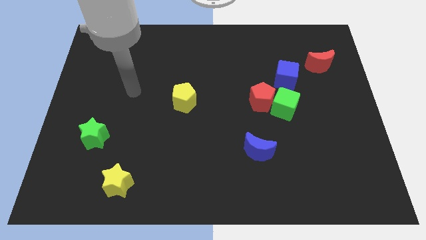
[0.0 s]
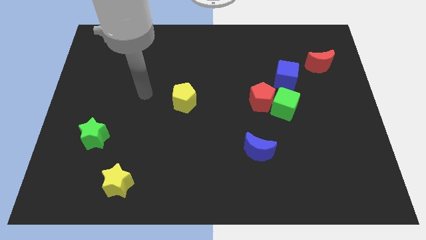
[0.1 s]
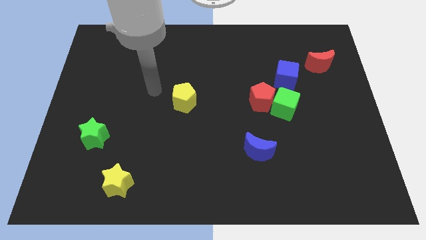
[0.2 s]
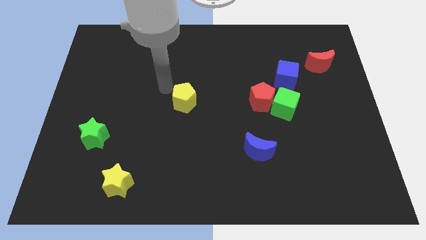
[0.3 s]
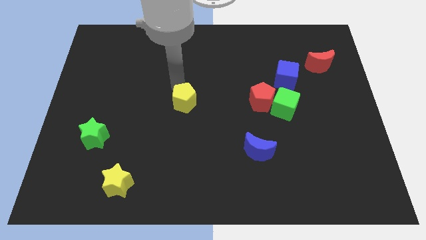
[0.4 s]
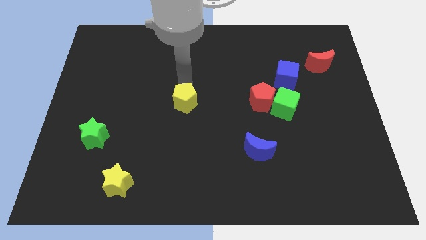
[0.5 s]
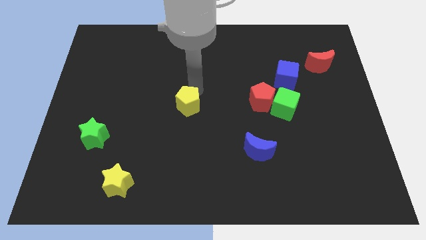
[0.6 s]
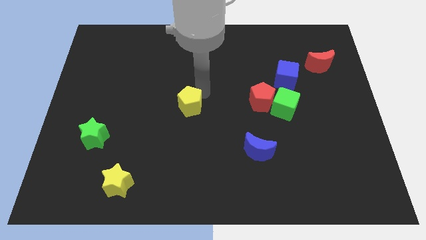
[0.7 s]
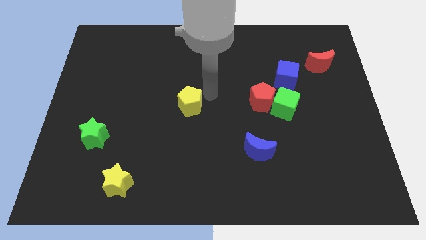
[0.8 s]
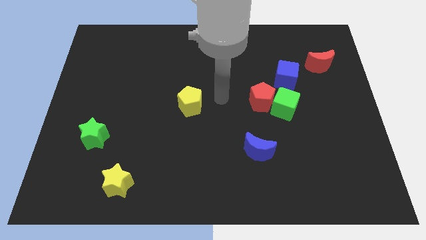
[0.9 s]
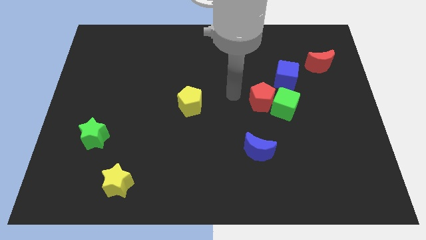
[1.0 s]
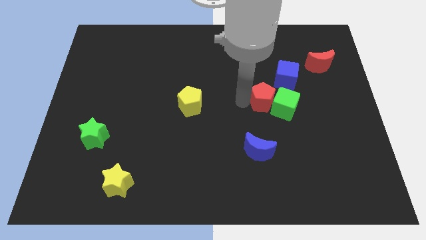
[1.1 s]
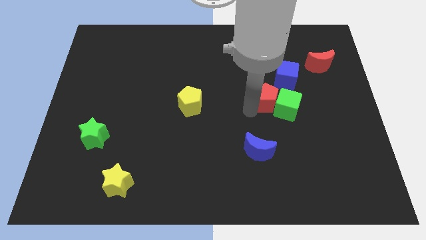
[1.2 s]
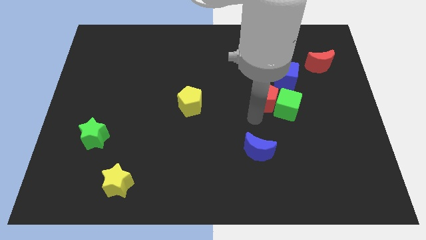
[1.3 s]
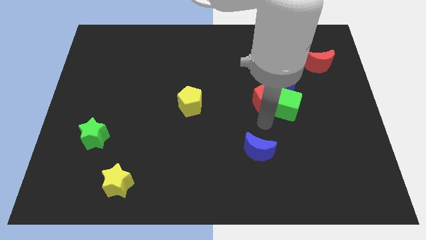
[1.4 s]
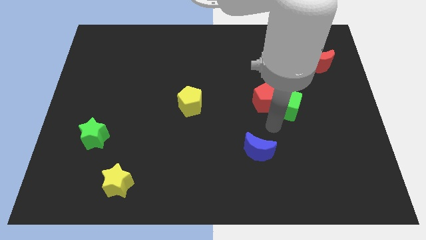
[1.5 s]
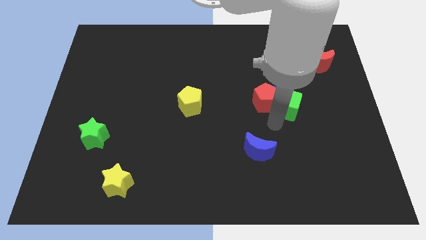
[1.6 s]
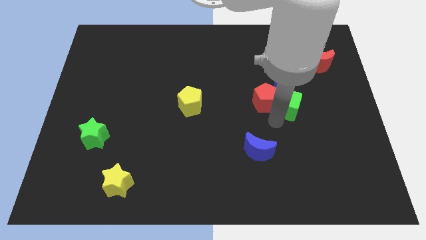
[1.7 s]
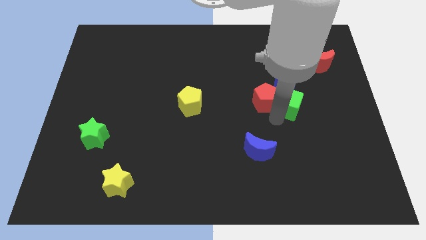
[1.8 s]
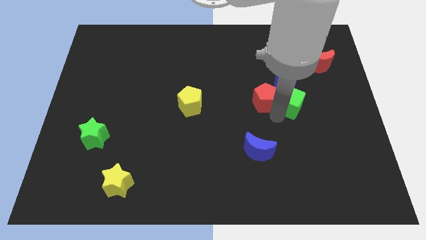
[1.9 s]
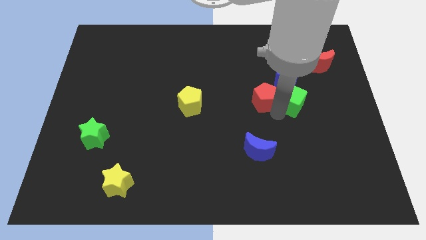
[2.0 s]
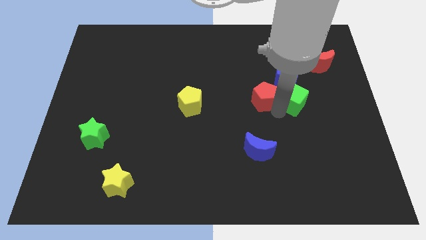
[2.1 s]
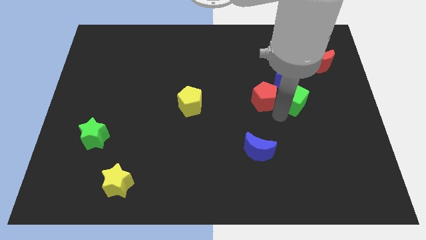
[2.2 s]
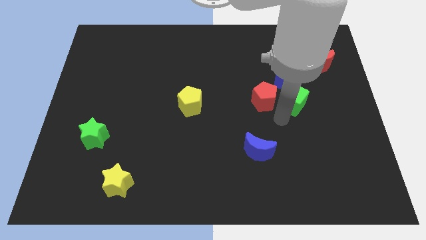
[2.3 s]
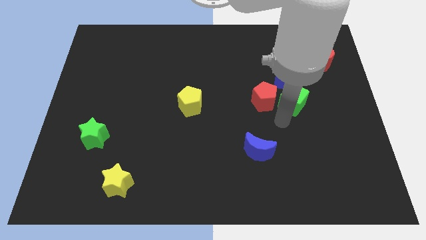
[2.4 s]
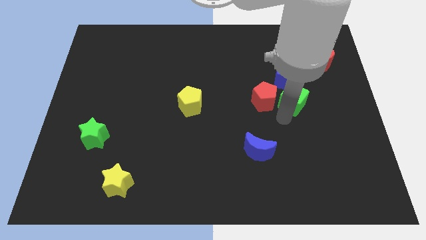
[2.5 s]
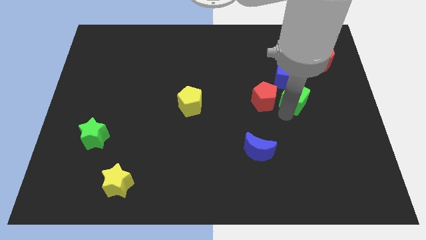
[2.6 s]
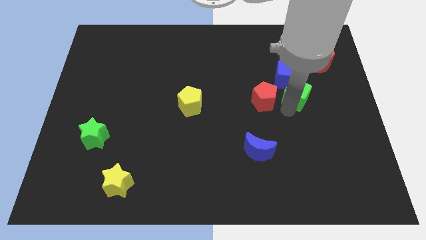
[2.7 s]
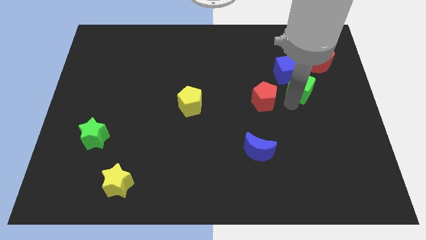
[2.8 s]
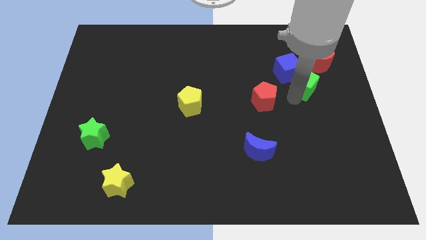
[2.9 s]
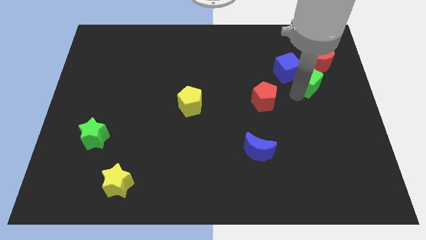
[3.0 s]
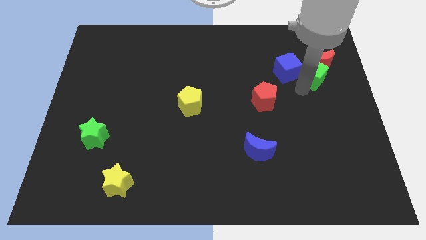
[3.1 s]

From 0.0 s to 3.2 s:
put the green cube towards the red moon

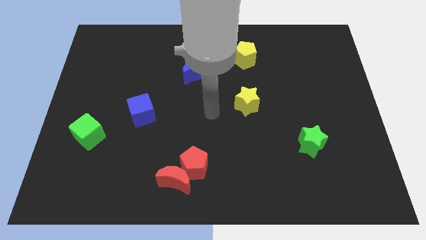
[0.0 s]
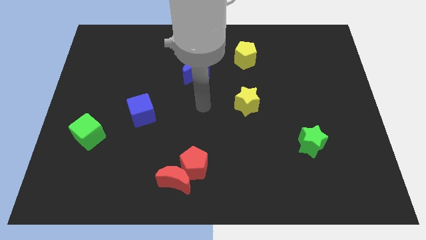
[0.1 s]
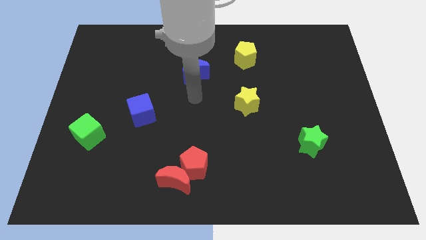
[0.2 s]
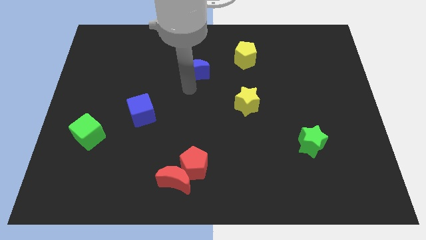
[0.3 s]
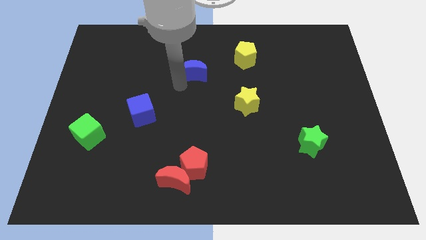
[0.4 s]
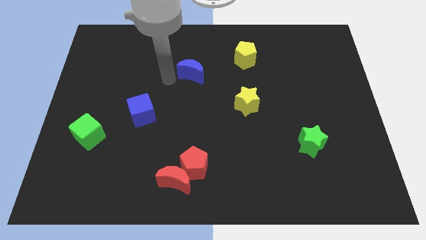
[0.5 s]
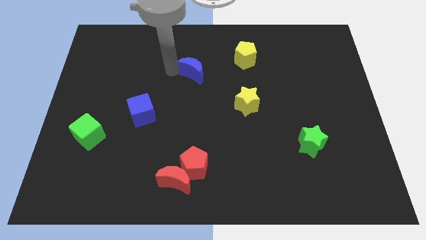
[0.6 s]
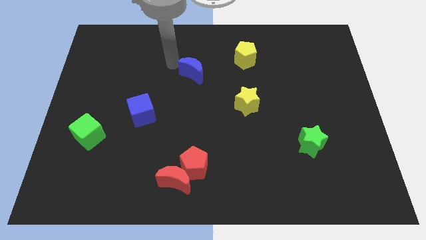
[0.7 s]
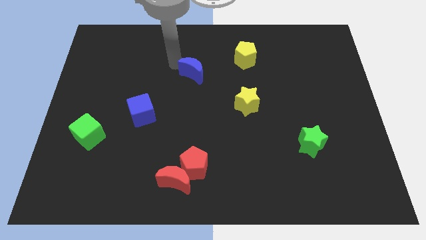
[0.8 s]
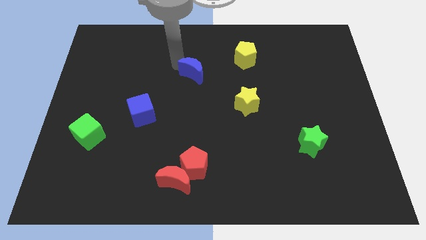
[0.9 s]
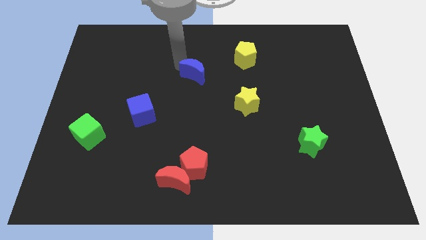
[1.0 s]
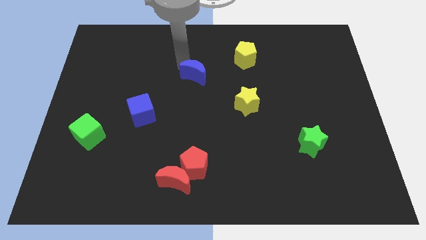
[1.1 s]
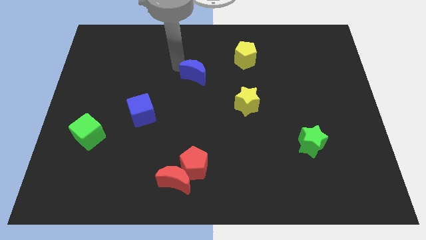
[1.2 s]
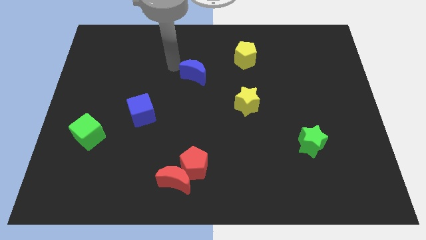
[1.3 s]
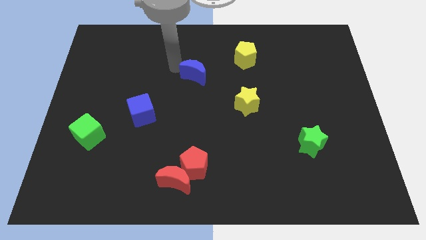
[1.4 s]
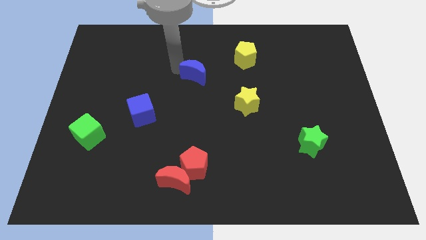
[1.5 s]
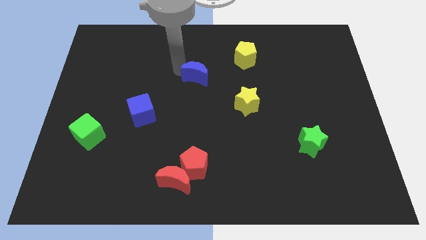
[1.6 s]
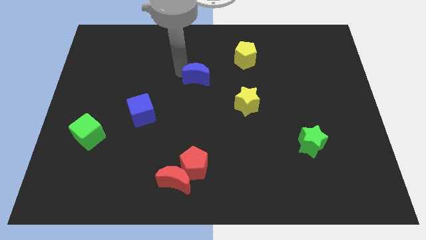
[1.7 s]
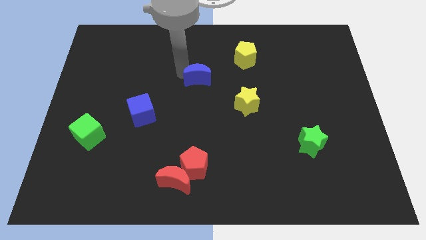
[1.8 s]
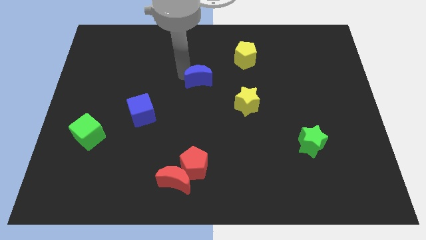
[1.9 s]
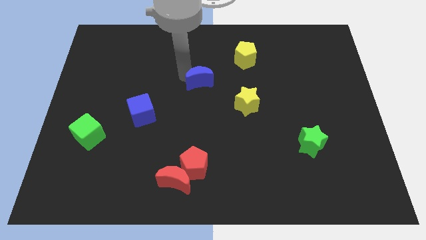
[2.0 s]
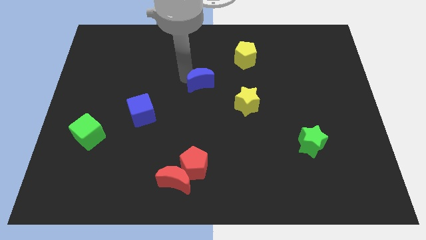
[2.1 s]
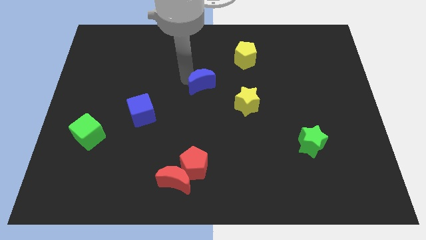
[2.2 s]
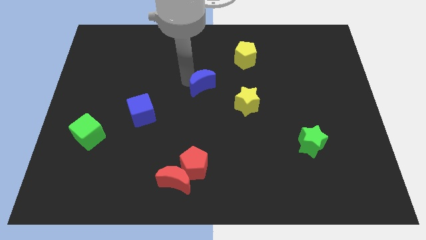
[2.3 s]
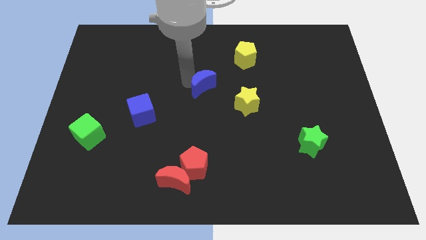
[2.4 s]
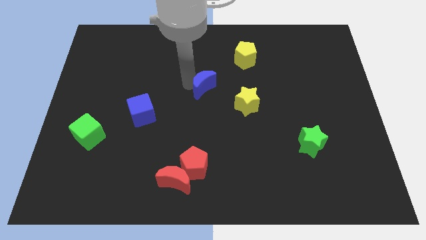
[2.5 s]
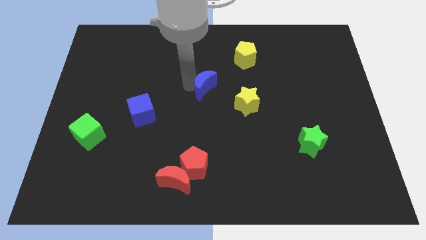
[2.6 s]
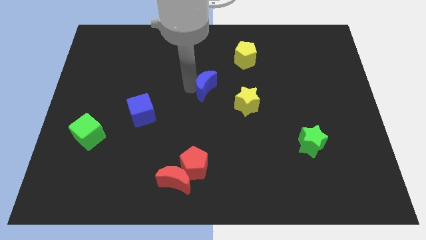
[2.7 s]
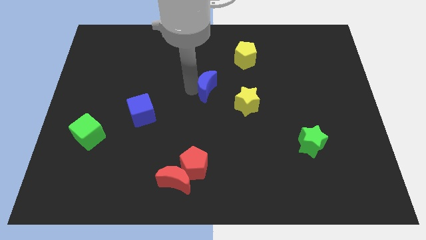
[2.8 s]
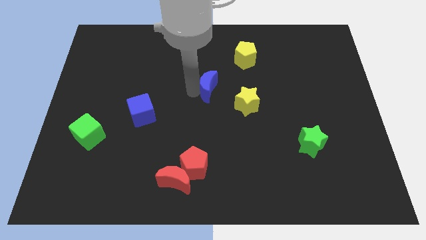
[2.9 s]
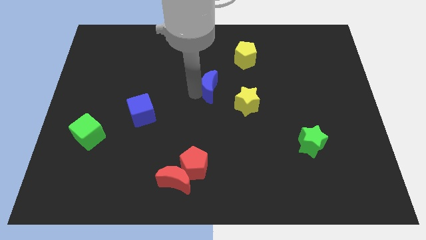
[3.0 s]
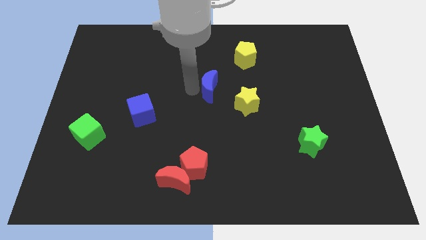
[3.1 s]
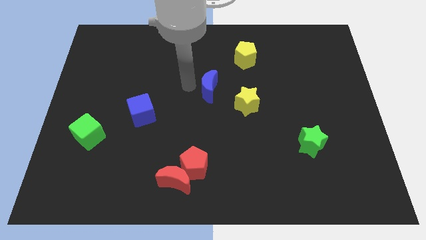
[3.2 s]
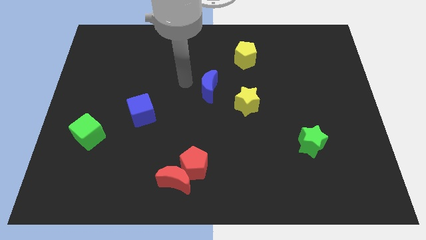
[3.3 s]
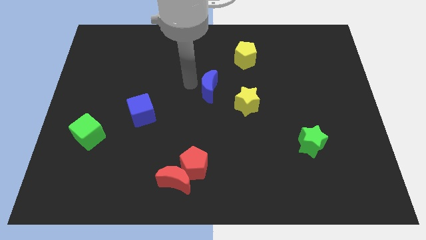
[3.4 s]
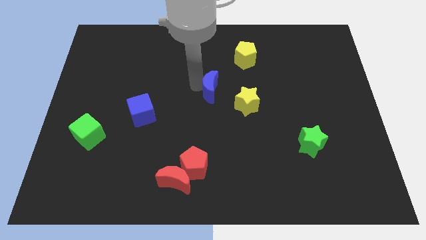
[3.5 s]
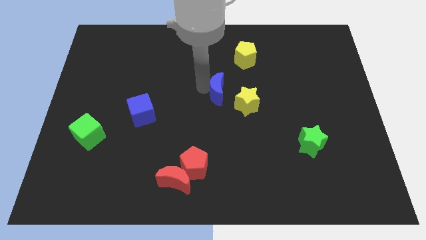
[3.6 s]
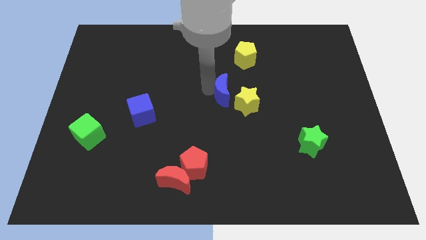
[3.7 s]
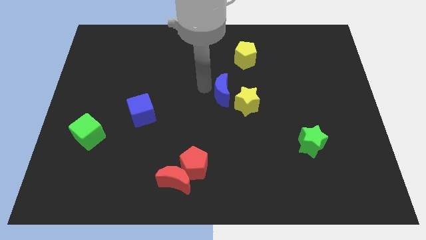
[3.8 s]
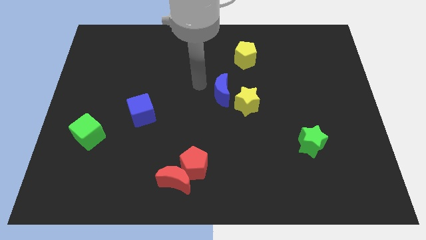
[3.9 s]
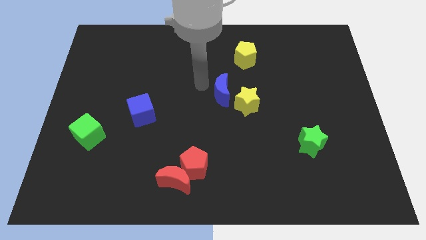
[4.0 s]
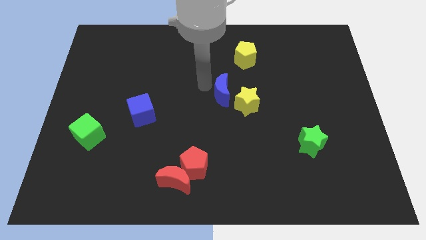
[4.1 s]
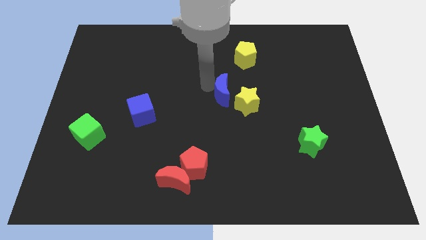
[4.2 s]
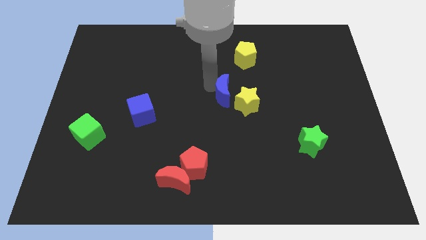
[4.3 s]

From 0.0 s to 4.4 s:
move the blue moon towards the yellow star

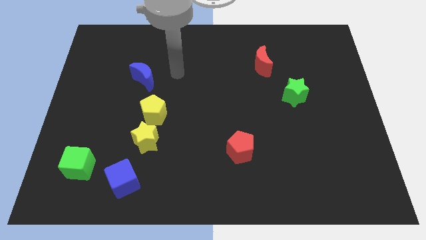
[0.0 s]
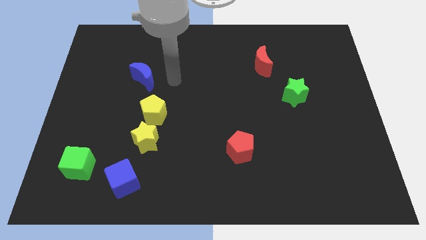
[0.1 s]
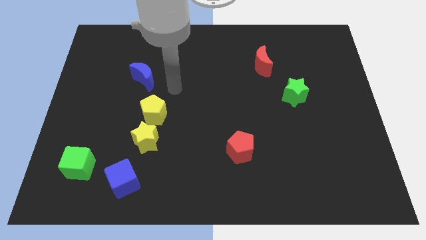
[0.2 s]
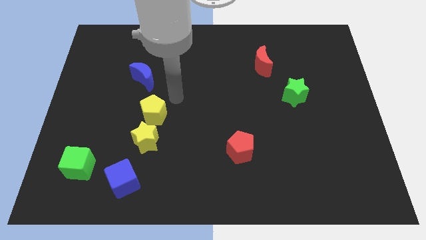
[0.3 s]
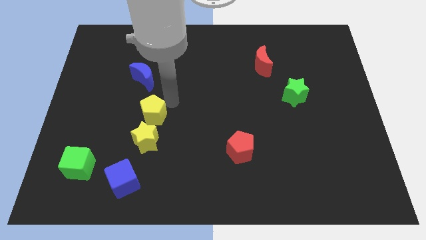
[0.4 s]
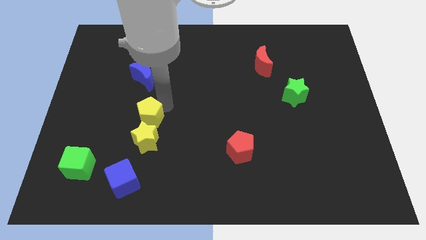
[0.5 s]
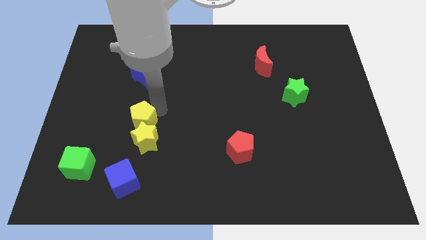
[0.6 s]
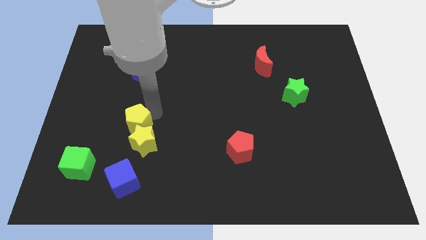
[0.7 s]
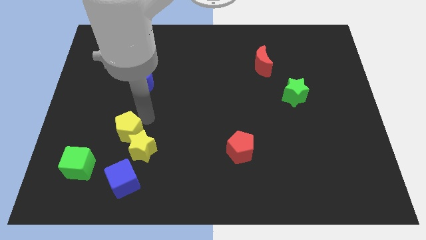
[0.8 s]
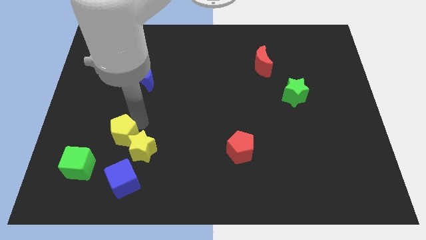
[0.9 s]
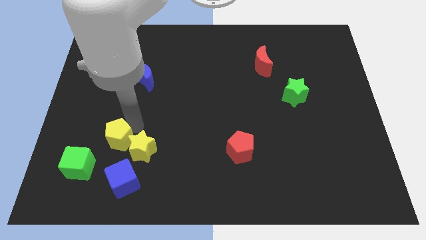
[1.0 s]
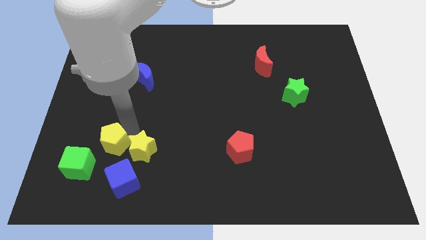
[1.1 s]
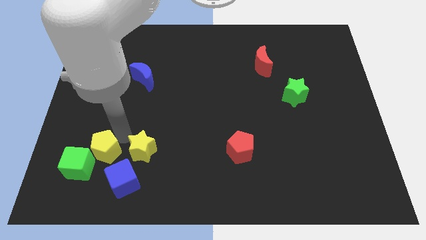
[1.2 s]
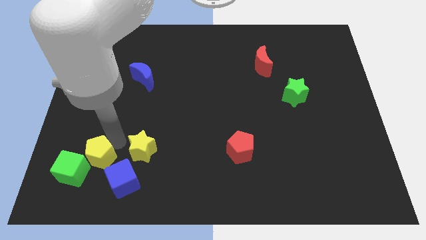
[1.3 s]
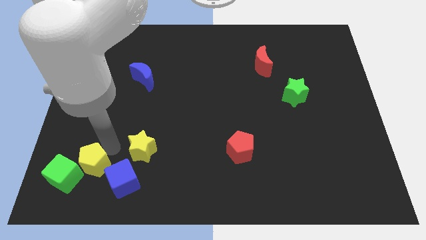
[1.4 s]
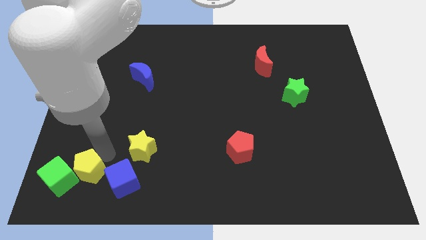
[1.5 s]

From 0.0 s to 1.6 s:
push the yellow pentagon next to the green cube
